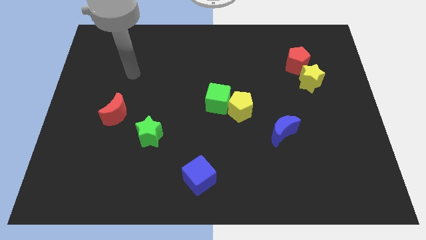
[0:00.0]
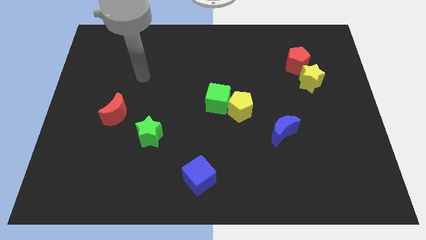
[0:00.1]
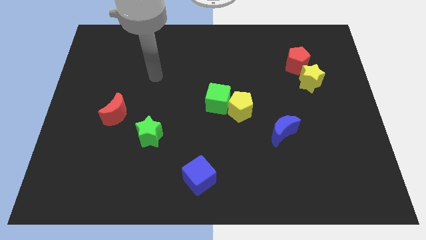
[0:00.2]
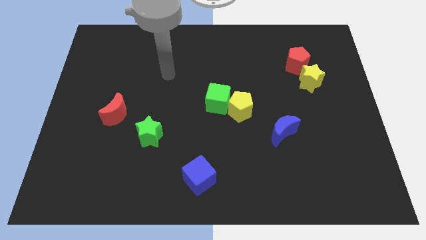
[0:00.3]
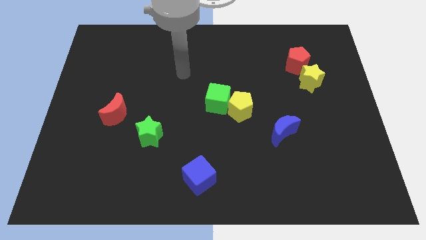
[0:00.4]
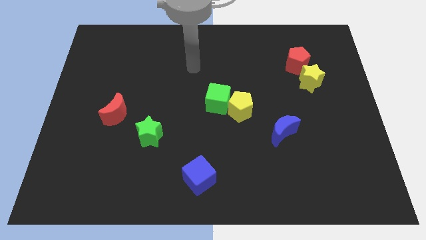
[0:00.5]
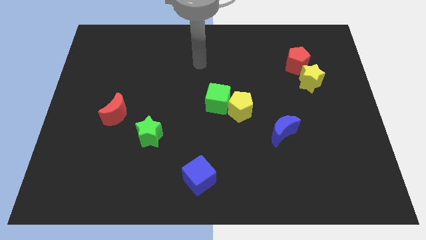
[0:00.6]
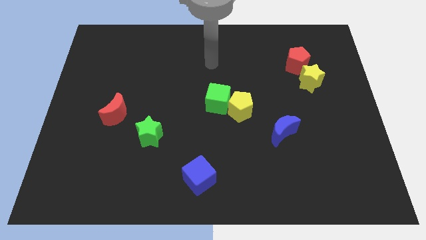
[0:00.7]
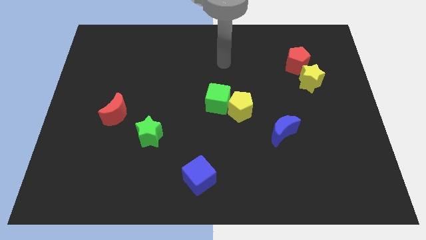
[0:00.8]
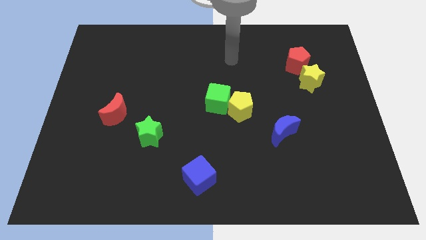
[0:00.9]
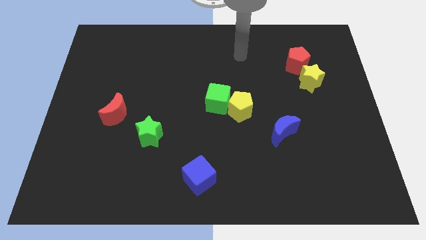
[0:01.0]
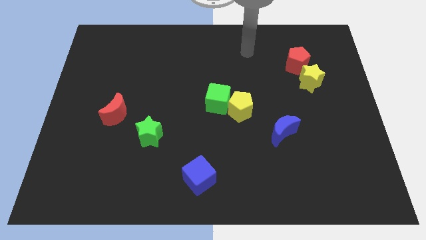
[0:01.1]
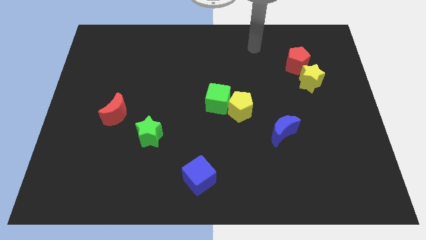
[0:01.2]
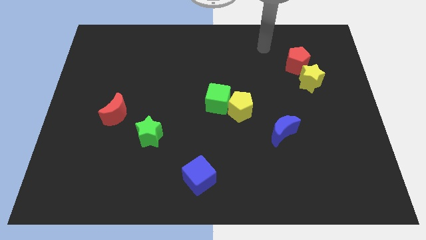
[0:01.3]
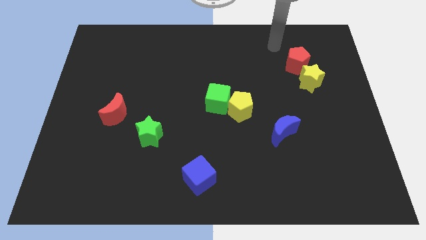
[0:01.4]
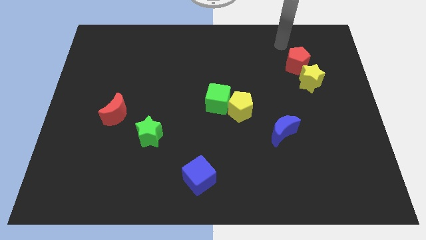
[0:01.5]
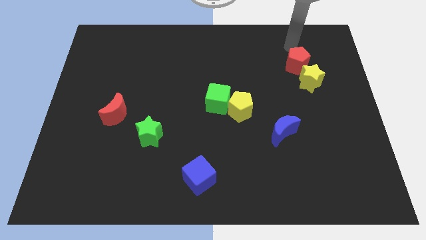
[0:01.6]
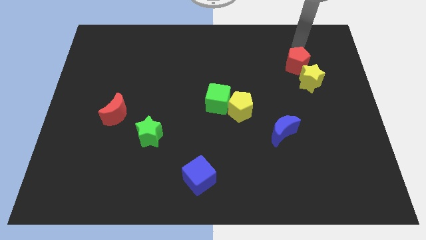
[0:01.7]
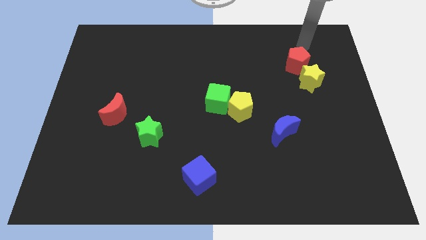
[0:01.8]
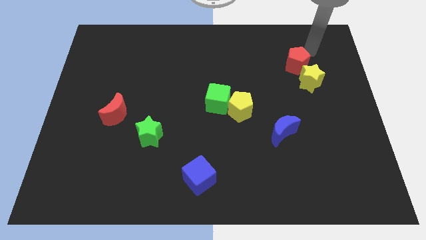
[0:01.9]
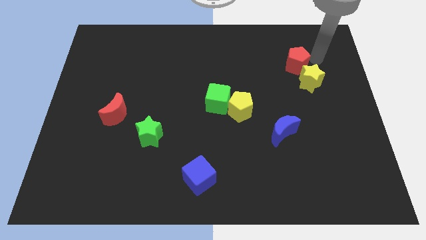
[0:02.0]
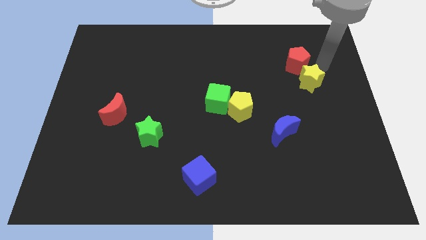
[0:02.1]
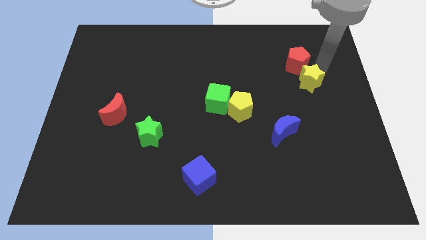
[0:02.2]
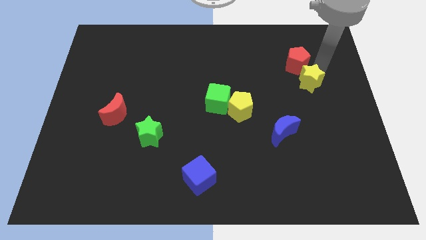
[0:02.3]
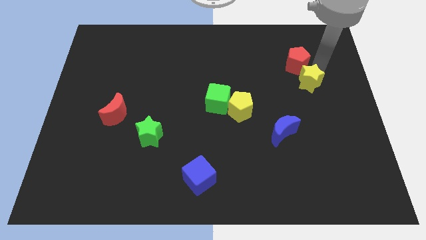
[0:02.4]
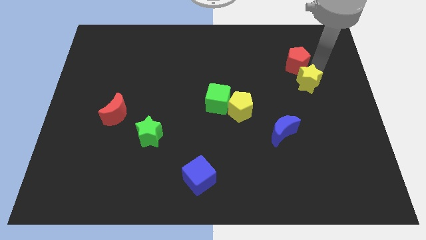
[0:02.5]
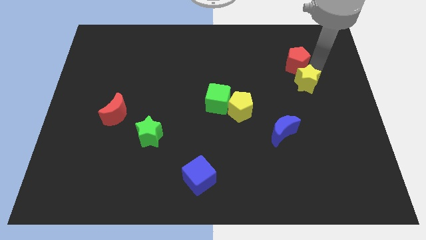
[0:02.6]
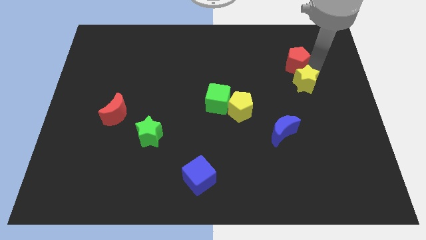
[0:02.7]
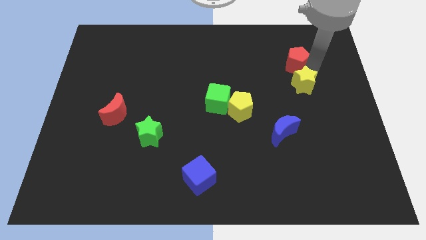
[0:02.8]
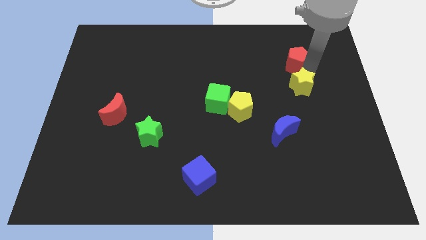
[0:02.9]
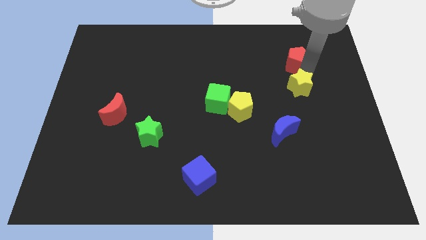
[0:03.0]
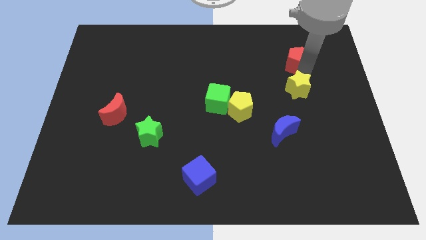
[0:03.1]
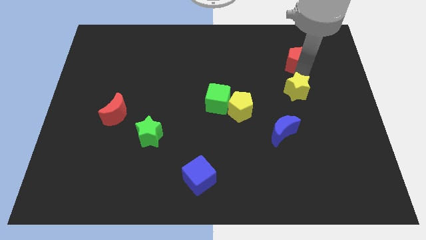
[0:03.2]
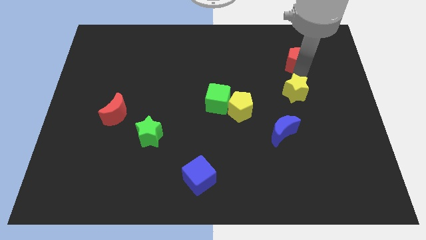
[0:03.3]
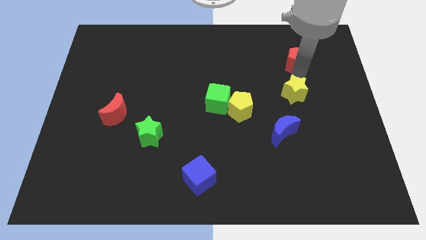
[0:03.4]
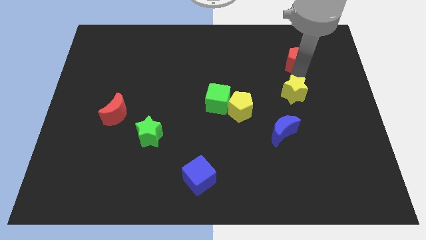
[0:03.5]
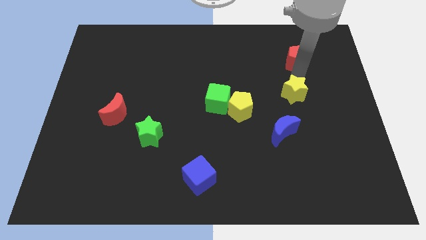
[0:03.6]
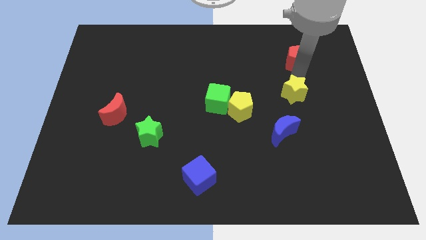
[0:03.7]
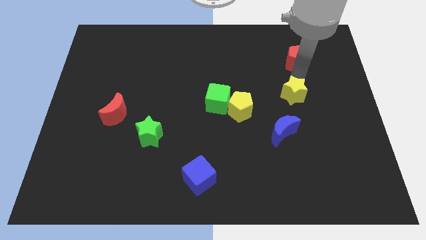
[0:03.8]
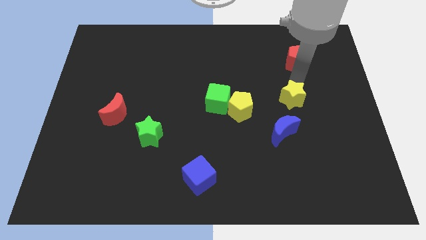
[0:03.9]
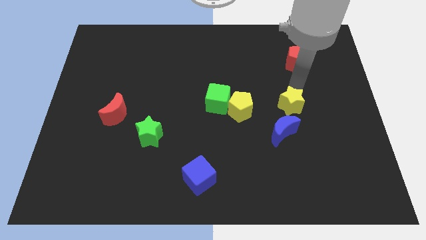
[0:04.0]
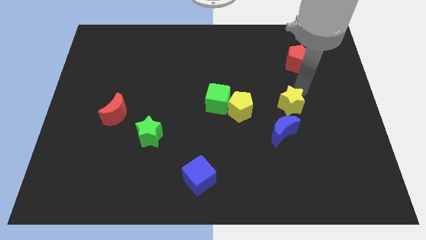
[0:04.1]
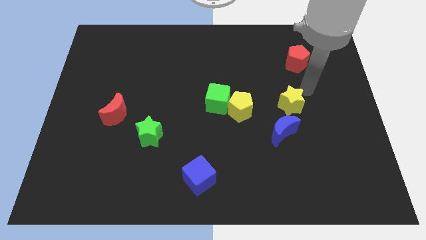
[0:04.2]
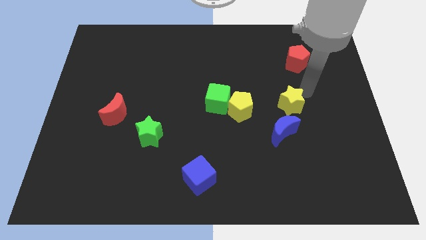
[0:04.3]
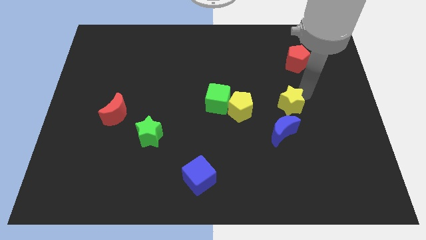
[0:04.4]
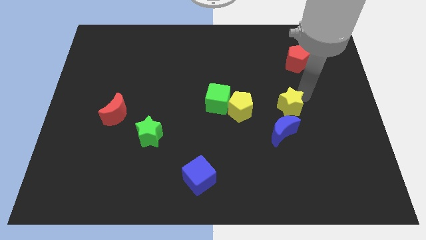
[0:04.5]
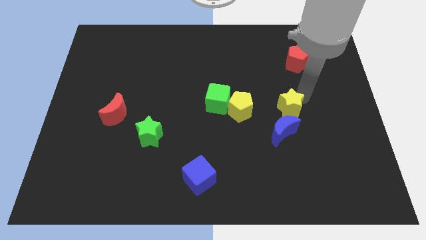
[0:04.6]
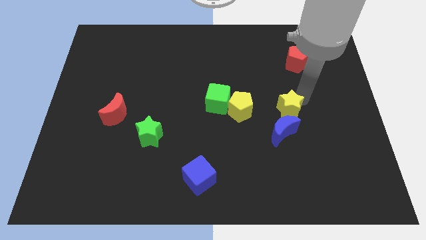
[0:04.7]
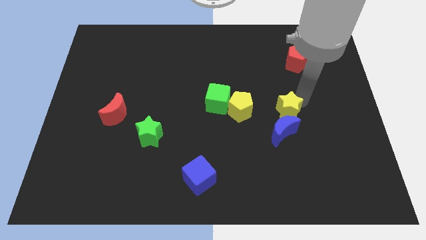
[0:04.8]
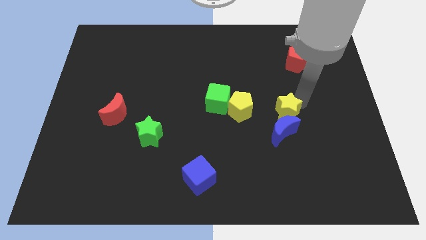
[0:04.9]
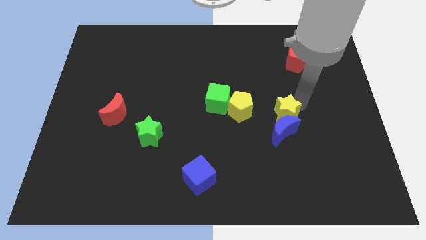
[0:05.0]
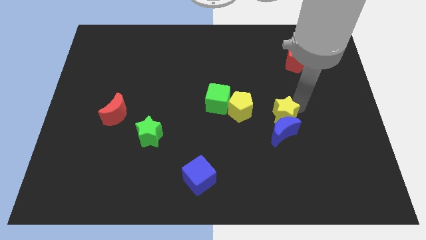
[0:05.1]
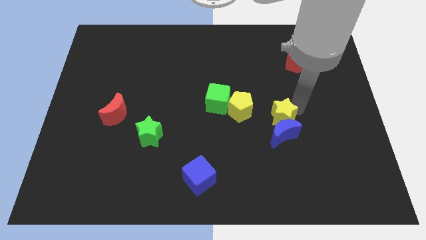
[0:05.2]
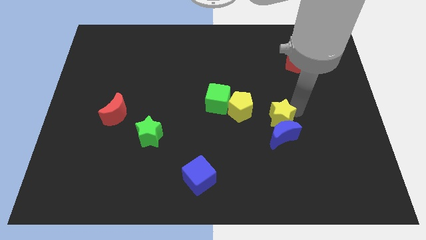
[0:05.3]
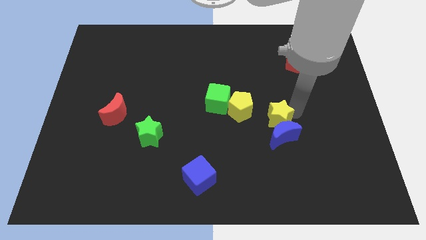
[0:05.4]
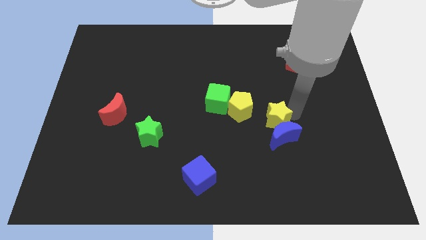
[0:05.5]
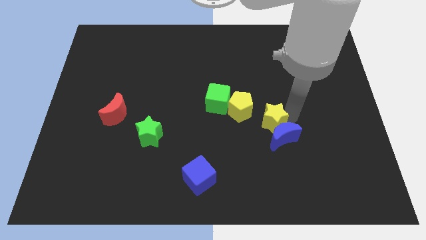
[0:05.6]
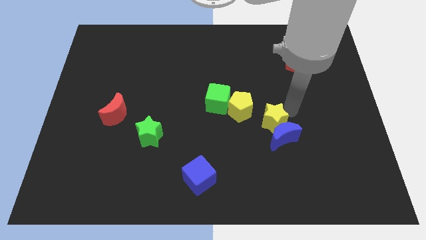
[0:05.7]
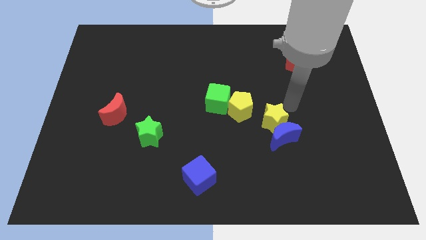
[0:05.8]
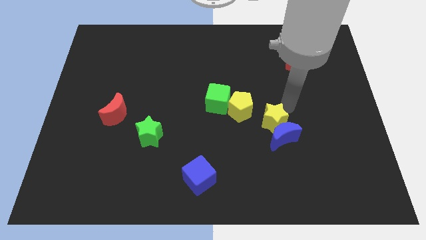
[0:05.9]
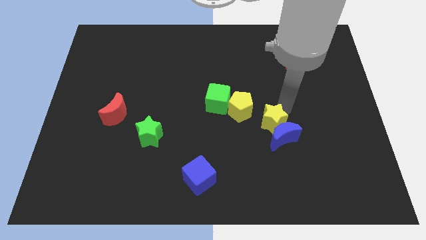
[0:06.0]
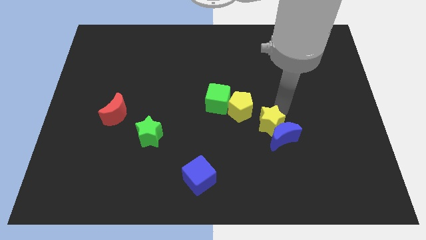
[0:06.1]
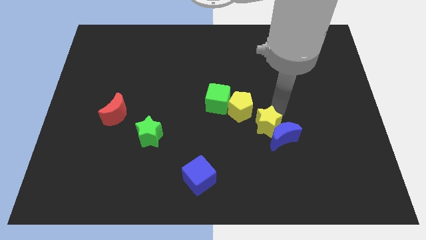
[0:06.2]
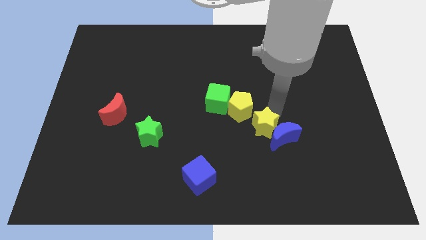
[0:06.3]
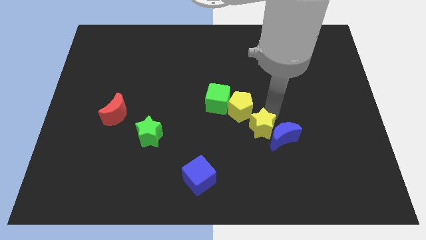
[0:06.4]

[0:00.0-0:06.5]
push the yellow star to the bottom side of the yellow pentagon

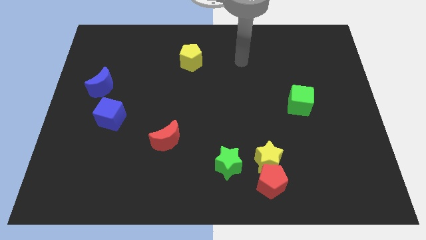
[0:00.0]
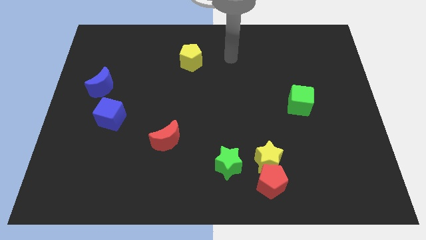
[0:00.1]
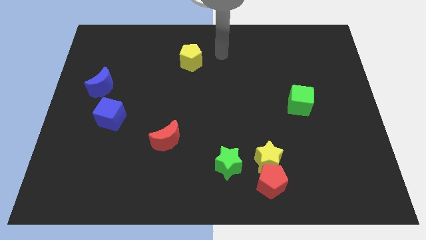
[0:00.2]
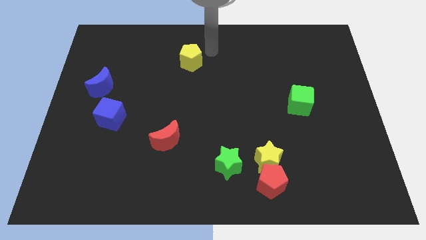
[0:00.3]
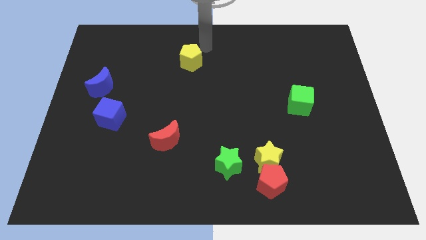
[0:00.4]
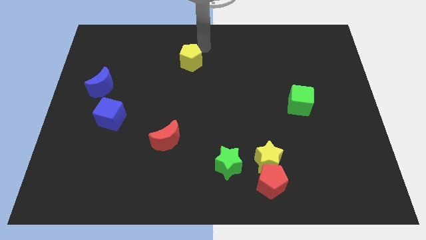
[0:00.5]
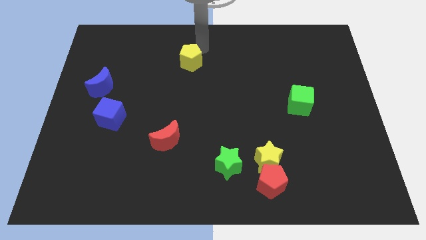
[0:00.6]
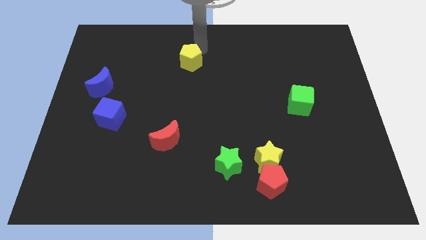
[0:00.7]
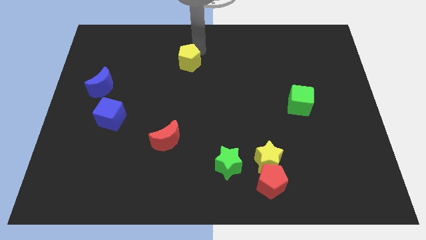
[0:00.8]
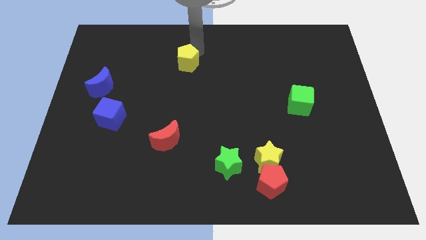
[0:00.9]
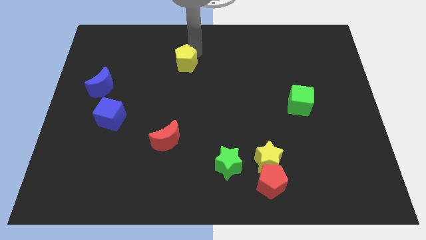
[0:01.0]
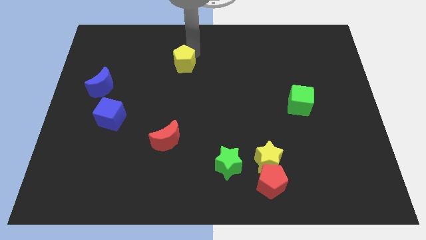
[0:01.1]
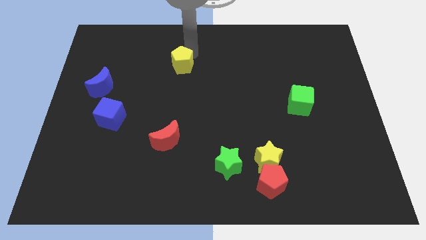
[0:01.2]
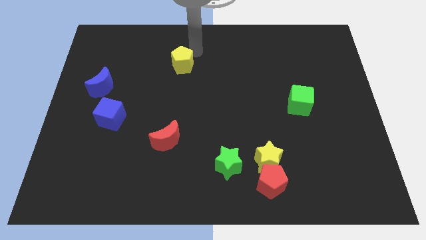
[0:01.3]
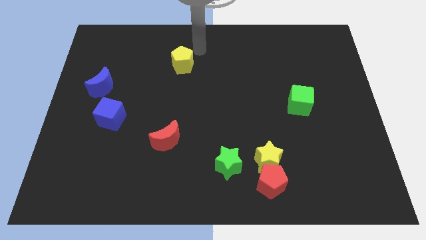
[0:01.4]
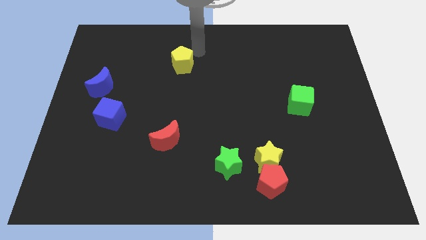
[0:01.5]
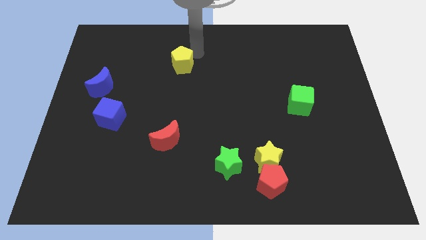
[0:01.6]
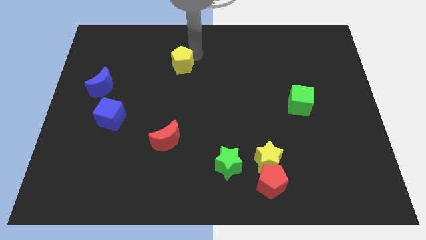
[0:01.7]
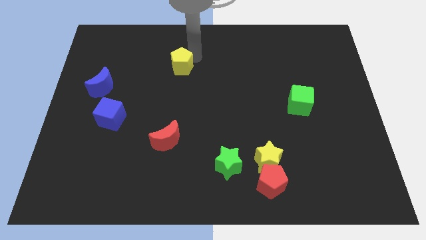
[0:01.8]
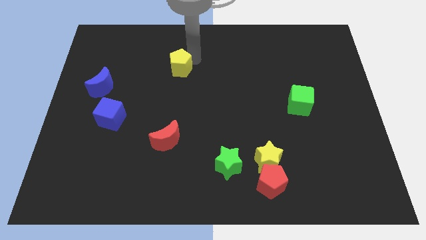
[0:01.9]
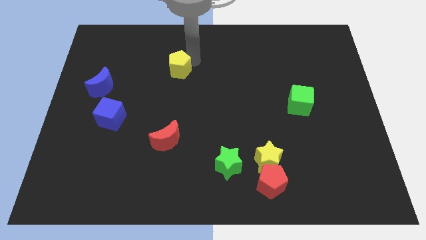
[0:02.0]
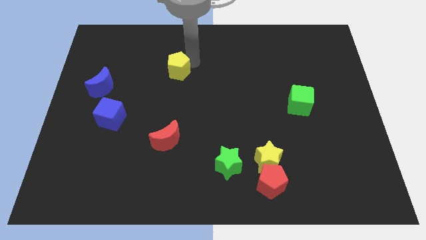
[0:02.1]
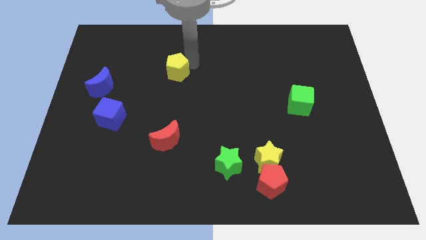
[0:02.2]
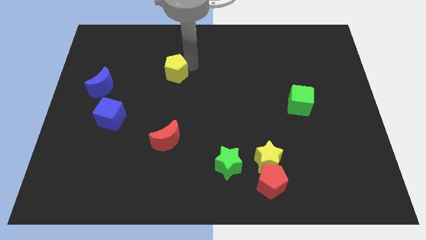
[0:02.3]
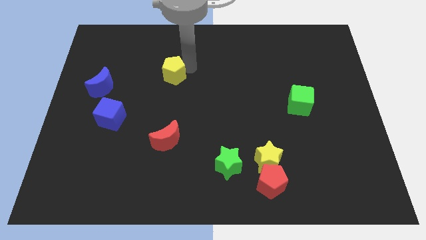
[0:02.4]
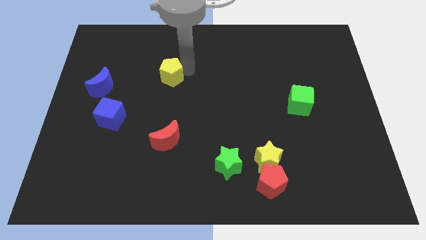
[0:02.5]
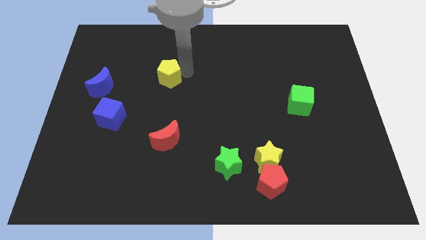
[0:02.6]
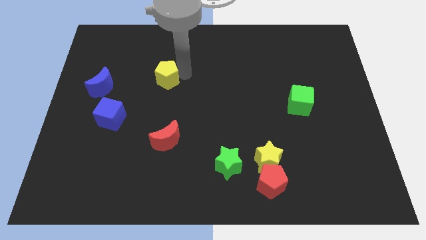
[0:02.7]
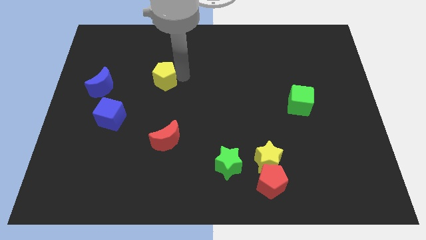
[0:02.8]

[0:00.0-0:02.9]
move the yellow pentagon right of the blue moon
